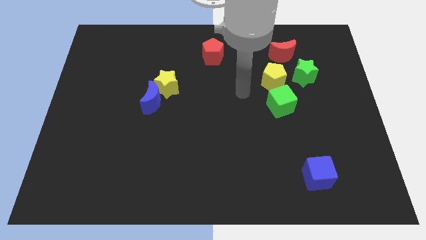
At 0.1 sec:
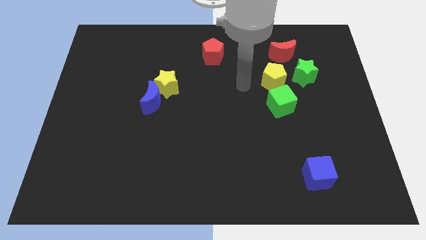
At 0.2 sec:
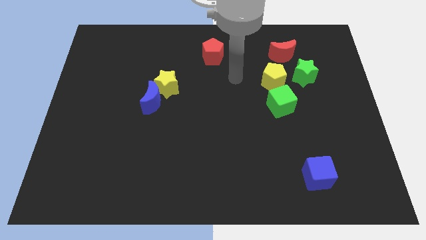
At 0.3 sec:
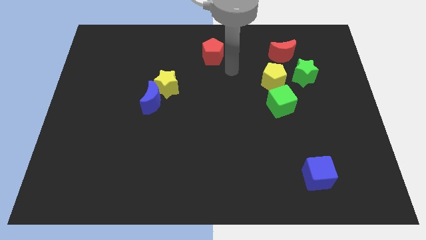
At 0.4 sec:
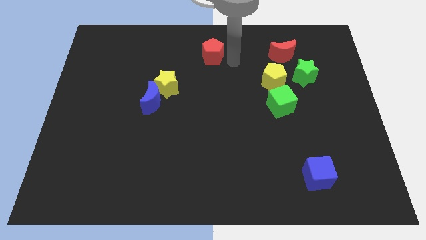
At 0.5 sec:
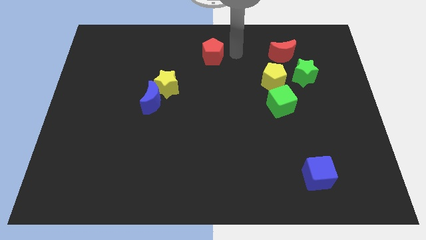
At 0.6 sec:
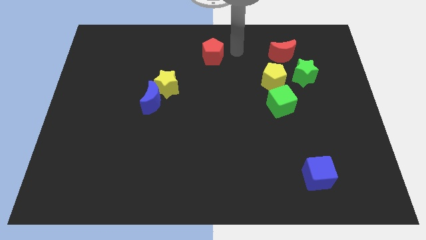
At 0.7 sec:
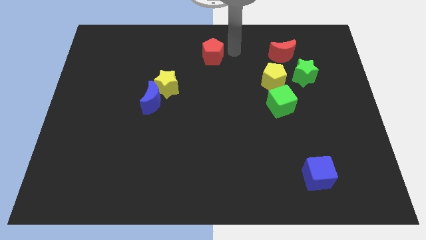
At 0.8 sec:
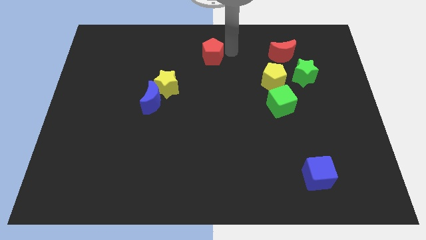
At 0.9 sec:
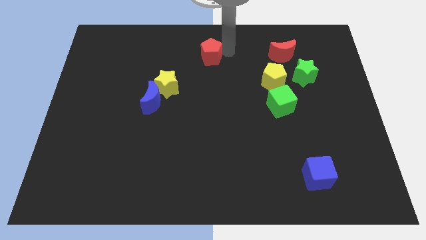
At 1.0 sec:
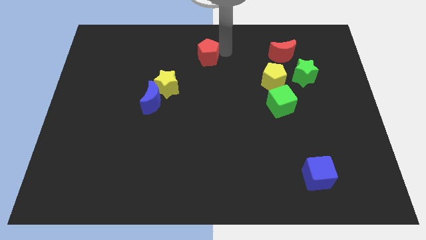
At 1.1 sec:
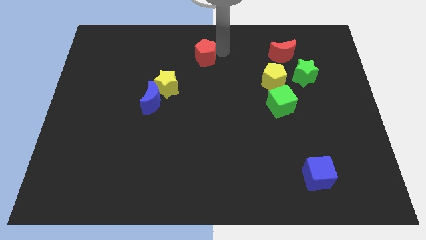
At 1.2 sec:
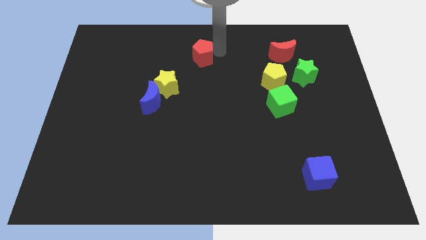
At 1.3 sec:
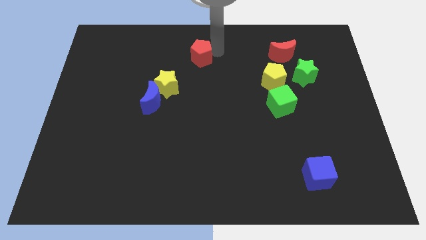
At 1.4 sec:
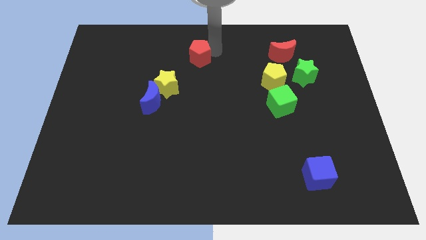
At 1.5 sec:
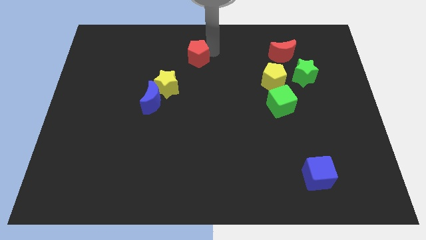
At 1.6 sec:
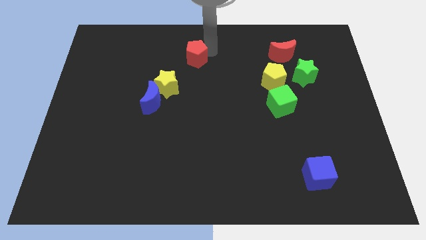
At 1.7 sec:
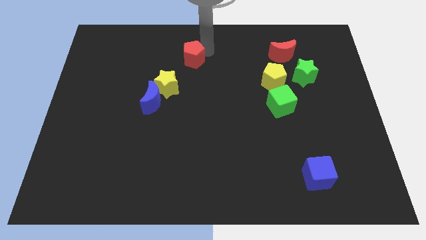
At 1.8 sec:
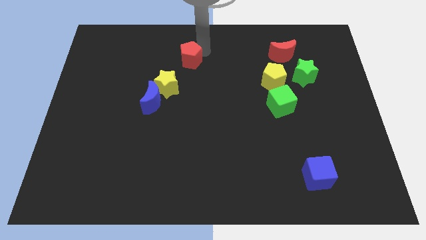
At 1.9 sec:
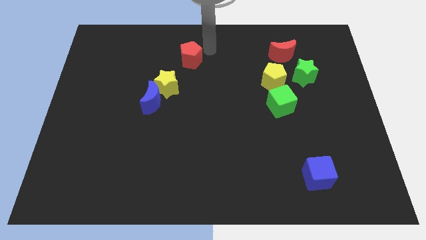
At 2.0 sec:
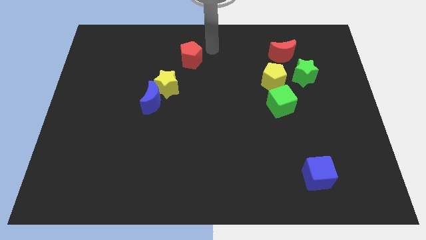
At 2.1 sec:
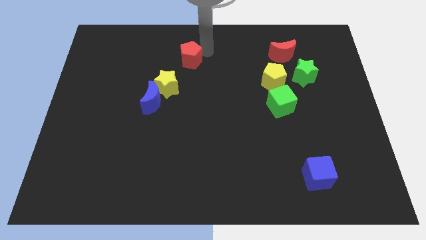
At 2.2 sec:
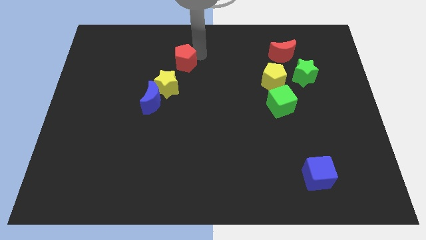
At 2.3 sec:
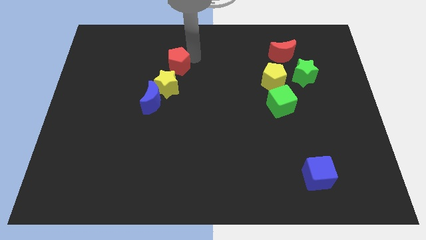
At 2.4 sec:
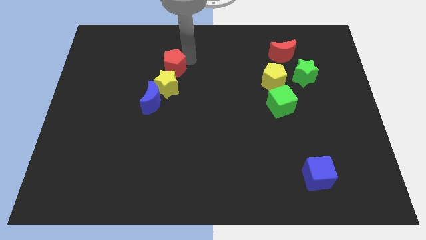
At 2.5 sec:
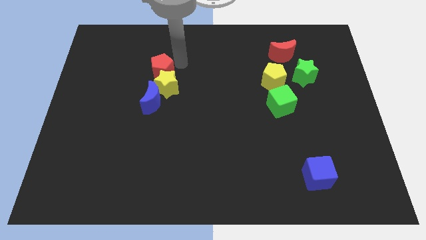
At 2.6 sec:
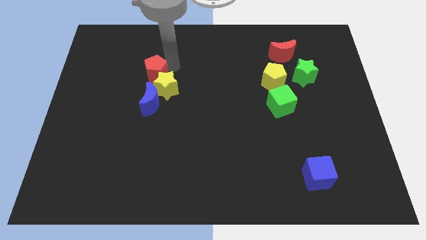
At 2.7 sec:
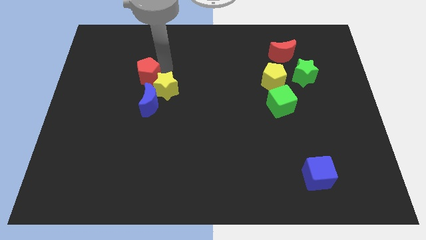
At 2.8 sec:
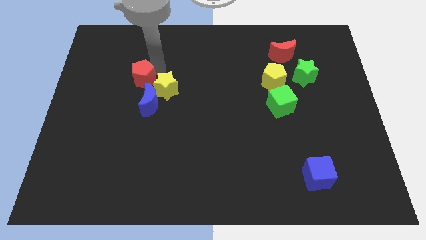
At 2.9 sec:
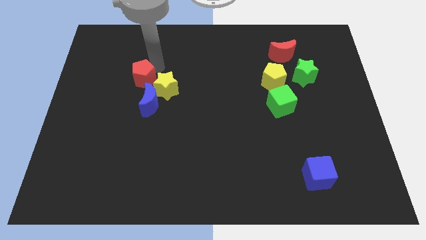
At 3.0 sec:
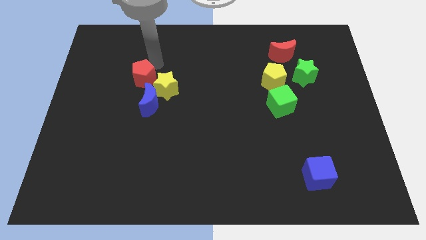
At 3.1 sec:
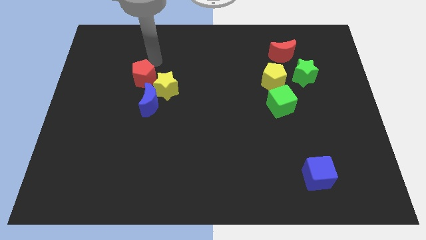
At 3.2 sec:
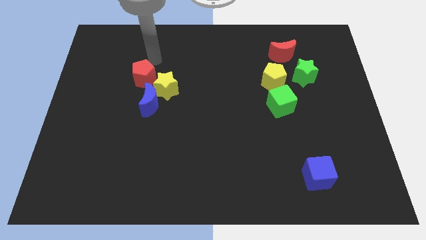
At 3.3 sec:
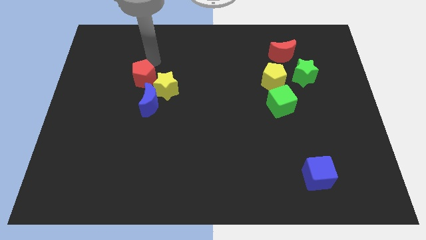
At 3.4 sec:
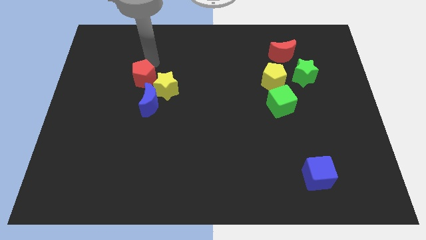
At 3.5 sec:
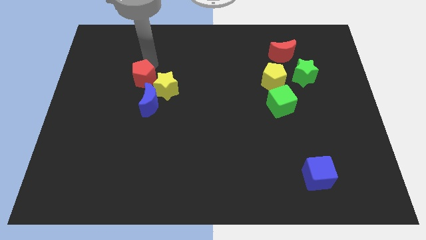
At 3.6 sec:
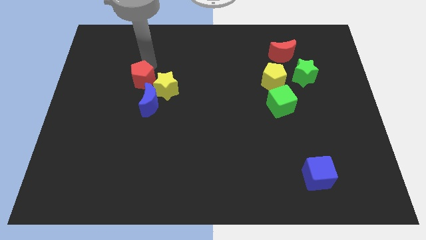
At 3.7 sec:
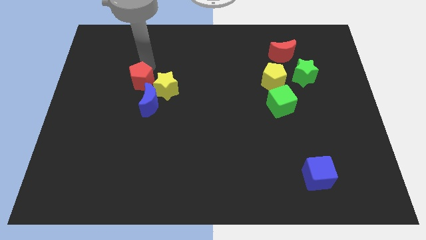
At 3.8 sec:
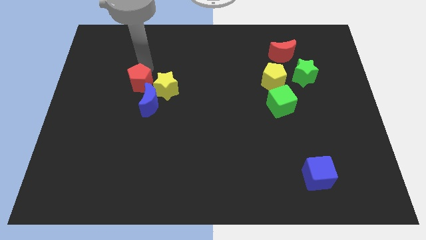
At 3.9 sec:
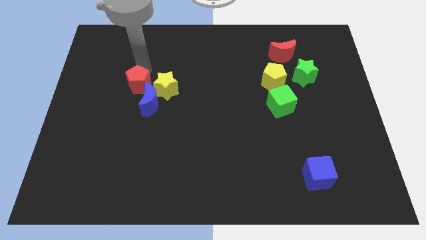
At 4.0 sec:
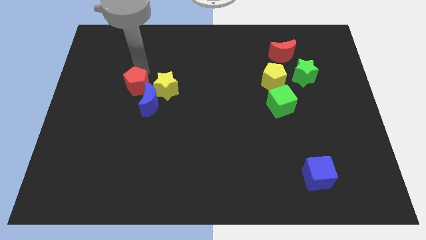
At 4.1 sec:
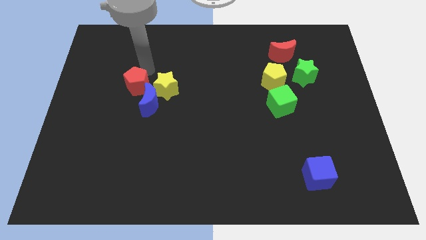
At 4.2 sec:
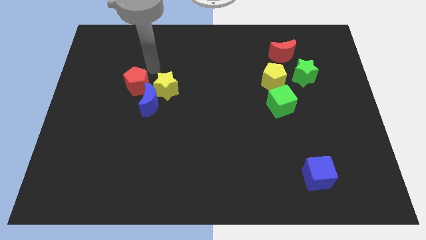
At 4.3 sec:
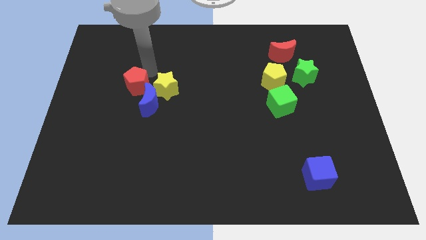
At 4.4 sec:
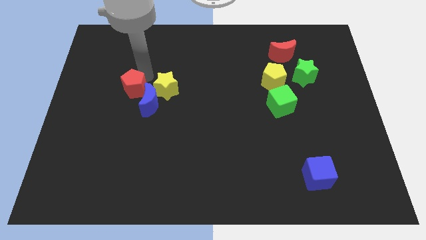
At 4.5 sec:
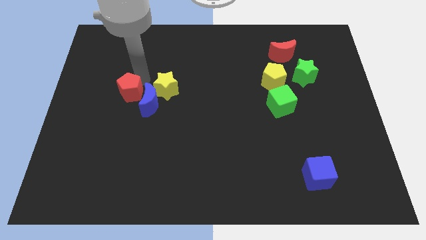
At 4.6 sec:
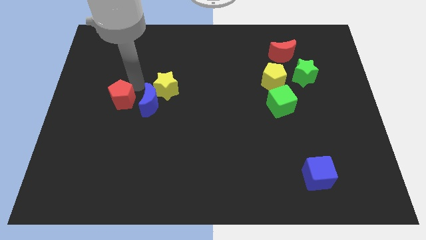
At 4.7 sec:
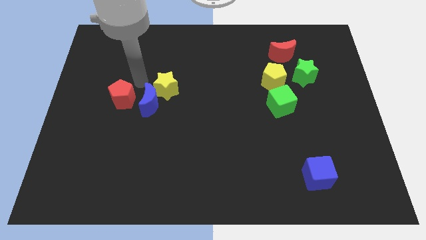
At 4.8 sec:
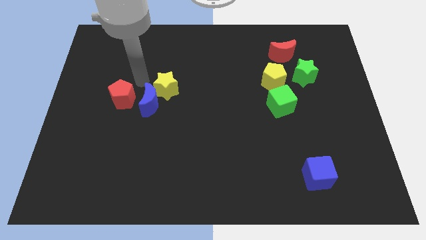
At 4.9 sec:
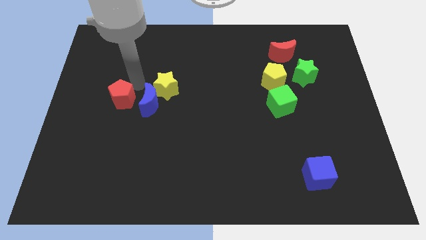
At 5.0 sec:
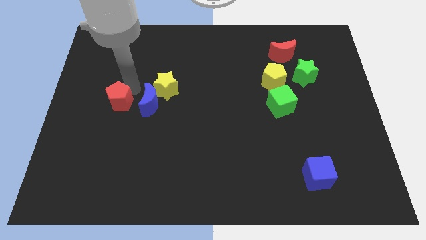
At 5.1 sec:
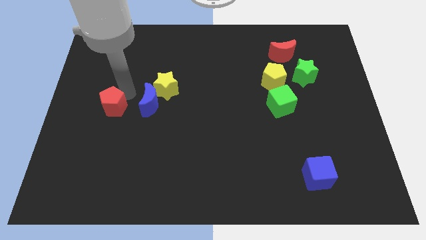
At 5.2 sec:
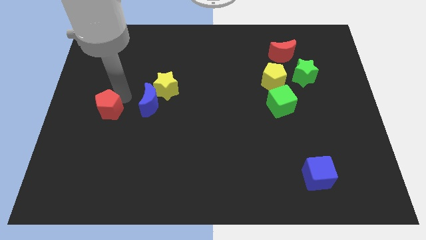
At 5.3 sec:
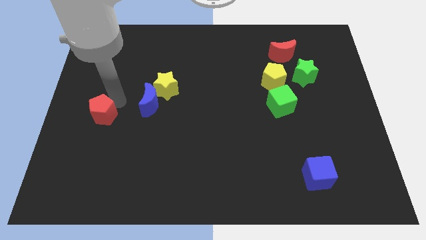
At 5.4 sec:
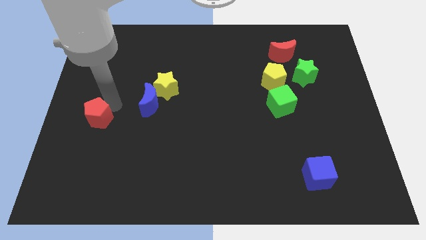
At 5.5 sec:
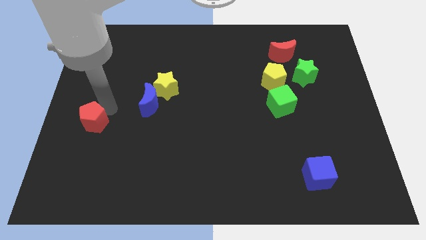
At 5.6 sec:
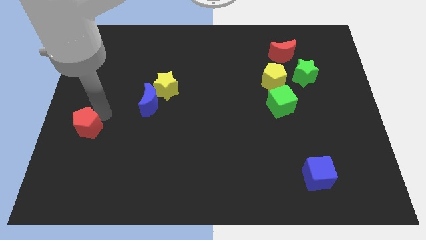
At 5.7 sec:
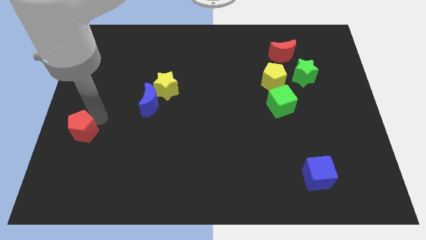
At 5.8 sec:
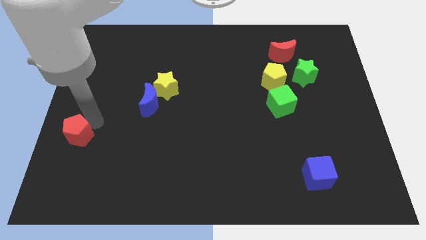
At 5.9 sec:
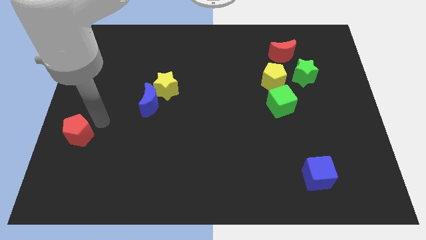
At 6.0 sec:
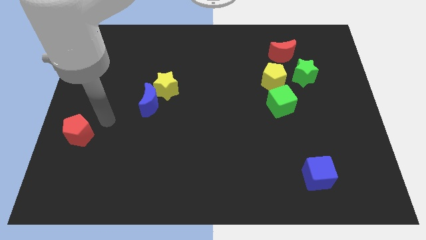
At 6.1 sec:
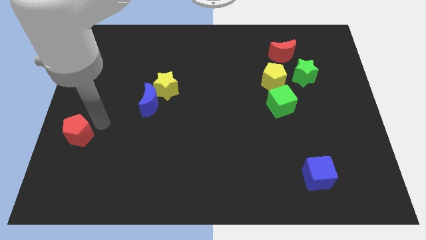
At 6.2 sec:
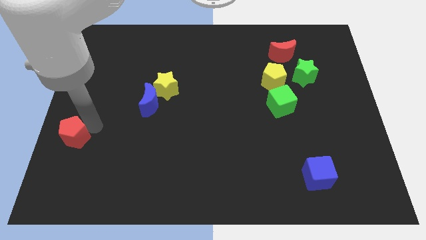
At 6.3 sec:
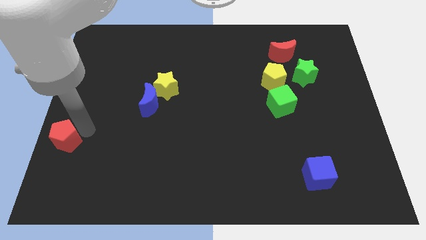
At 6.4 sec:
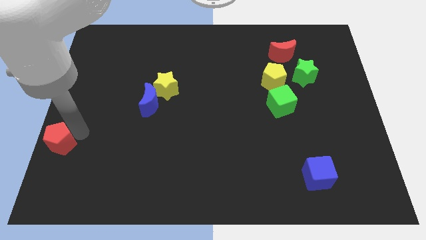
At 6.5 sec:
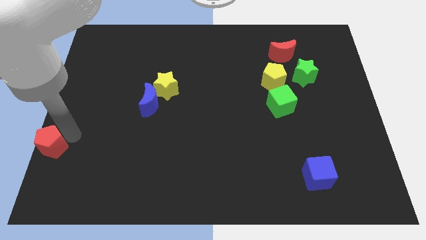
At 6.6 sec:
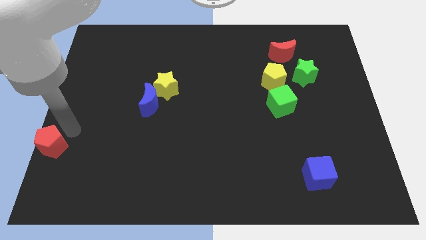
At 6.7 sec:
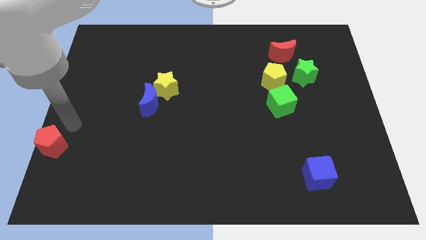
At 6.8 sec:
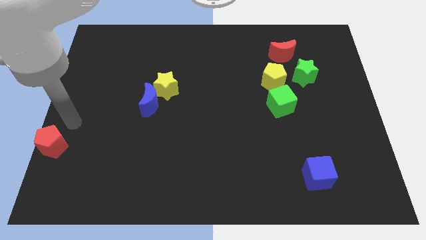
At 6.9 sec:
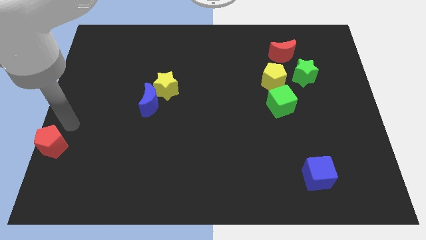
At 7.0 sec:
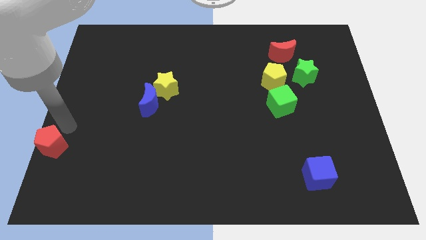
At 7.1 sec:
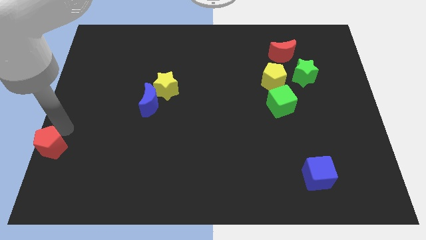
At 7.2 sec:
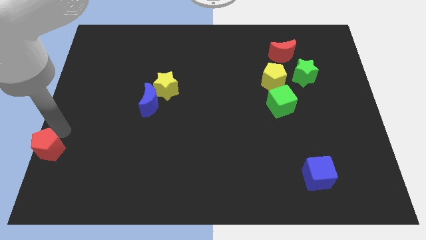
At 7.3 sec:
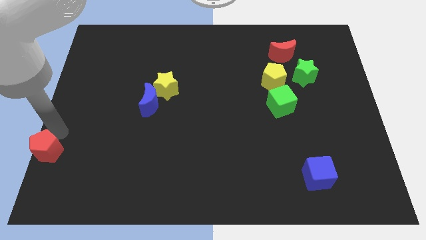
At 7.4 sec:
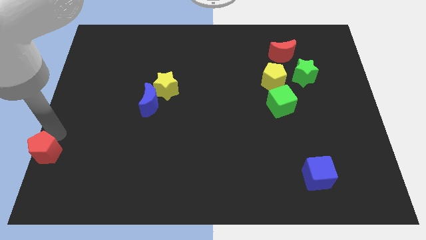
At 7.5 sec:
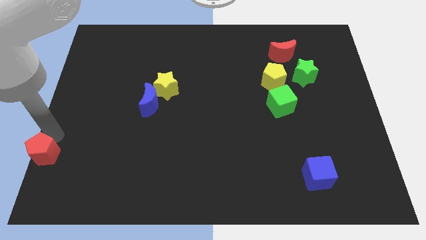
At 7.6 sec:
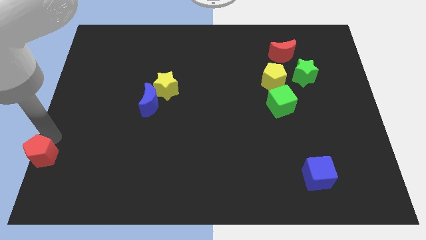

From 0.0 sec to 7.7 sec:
move the red pentagon to the bottom left of the board
